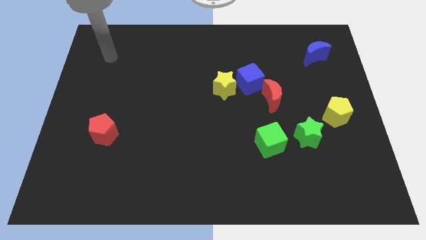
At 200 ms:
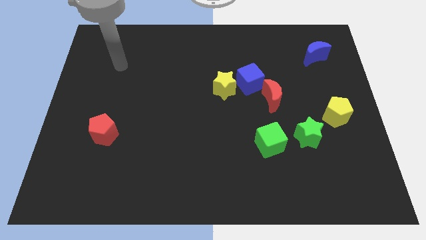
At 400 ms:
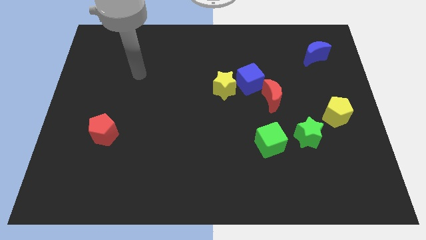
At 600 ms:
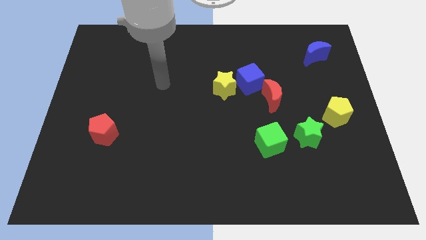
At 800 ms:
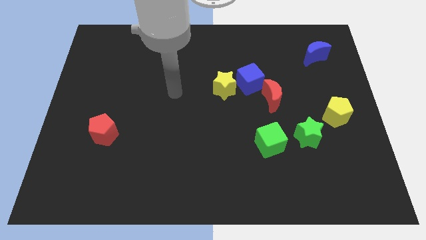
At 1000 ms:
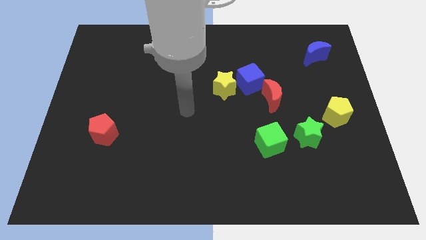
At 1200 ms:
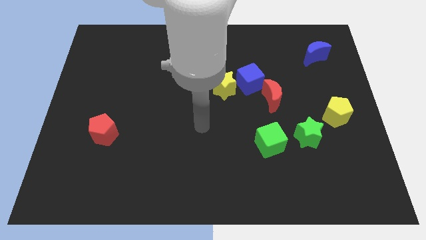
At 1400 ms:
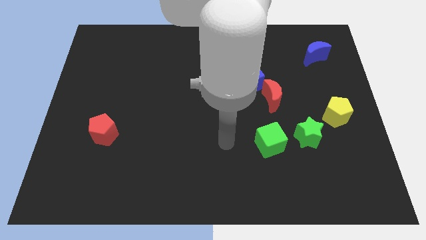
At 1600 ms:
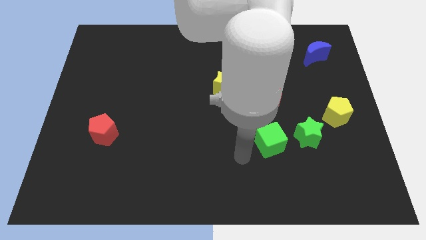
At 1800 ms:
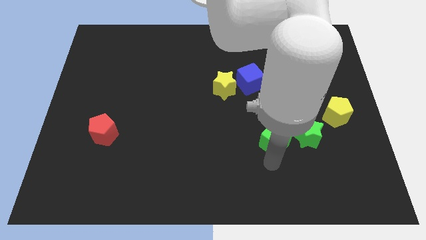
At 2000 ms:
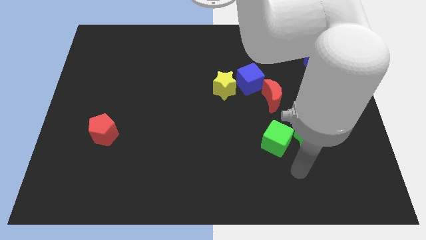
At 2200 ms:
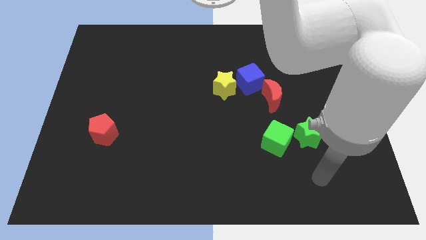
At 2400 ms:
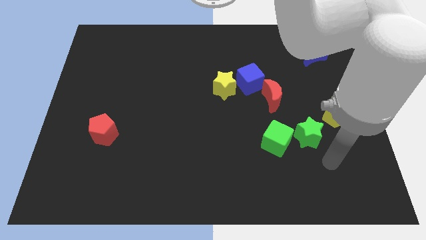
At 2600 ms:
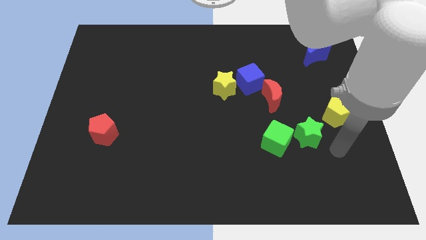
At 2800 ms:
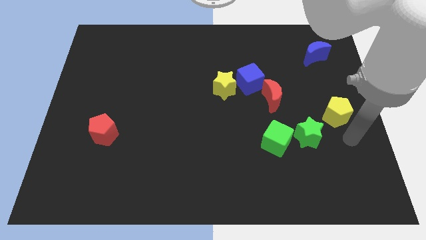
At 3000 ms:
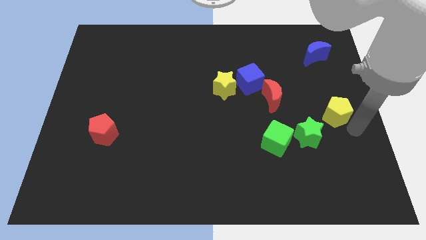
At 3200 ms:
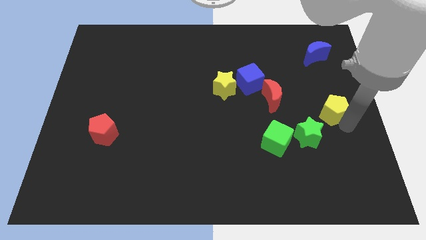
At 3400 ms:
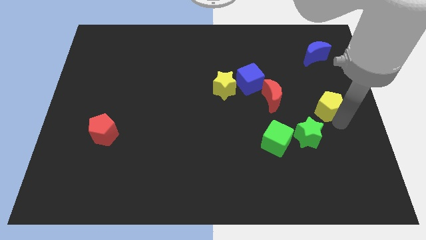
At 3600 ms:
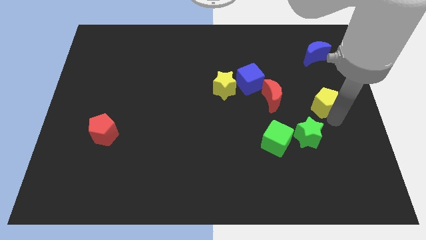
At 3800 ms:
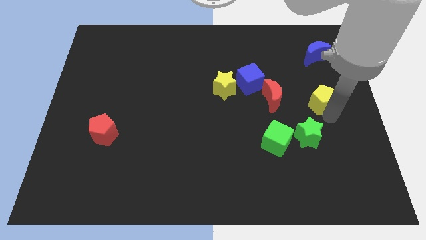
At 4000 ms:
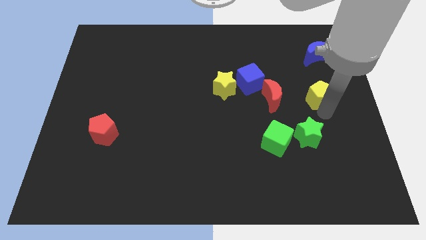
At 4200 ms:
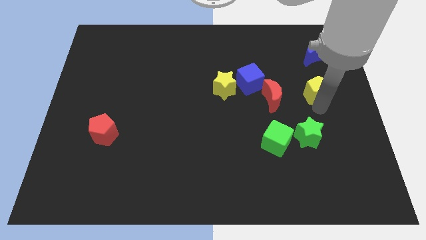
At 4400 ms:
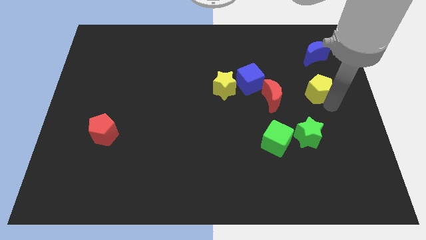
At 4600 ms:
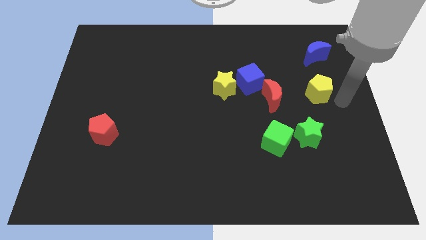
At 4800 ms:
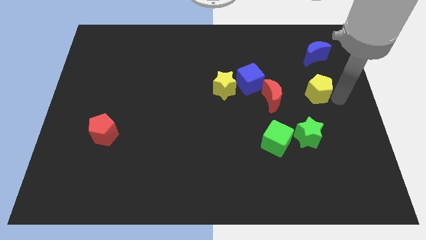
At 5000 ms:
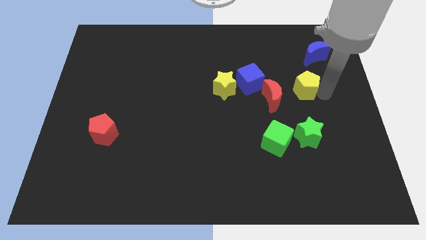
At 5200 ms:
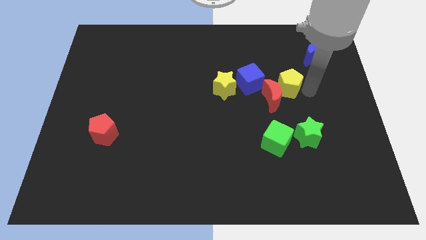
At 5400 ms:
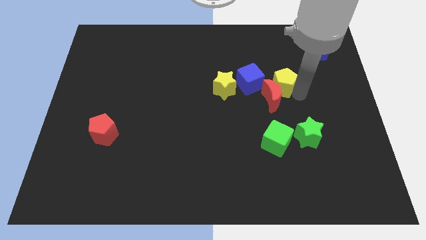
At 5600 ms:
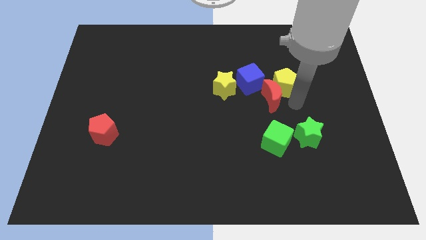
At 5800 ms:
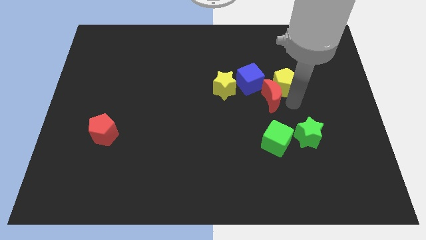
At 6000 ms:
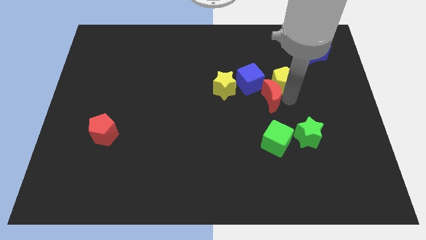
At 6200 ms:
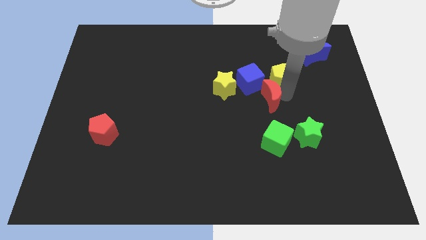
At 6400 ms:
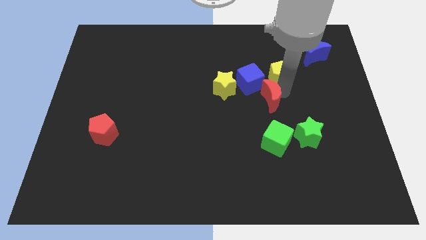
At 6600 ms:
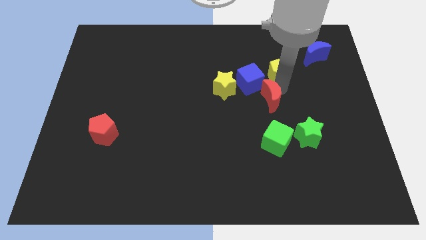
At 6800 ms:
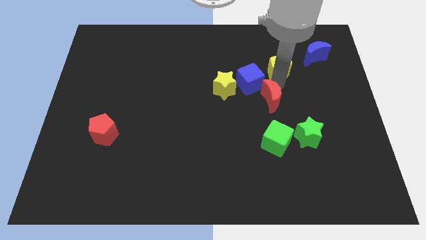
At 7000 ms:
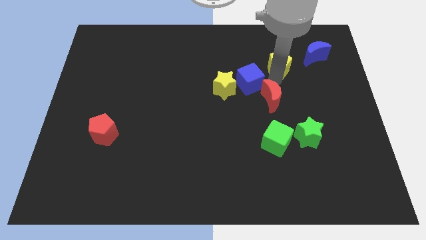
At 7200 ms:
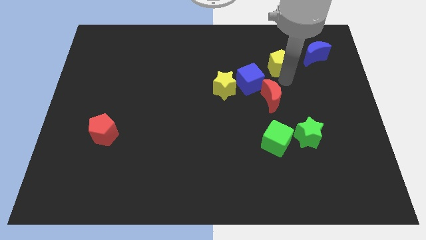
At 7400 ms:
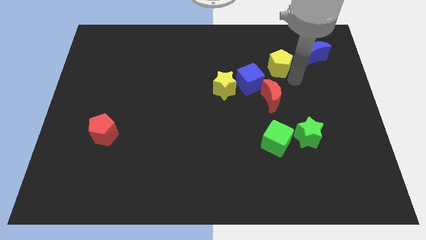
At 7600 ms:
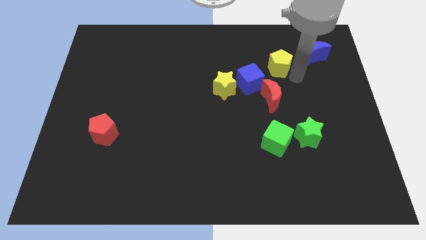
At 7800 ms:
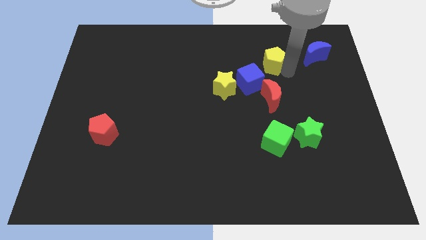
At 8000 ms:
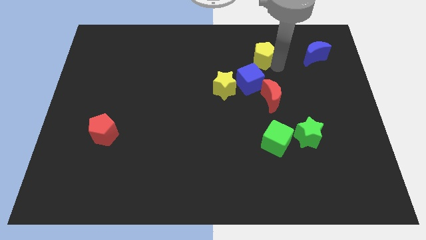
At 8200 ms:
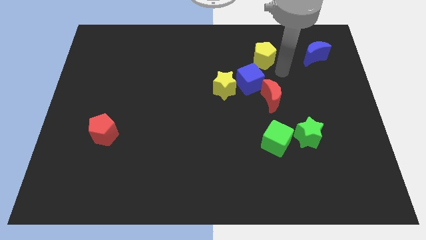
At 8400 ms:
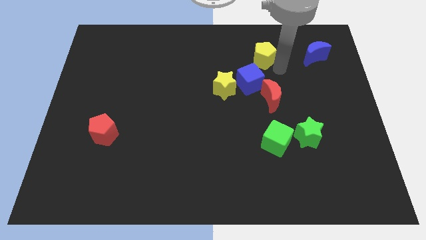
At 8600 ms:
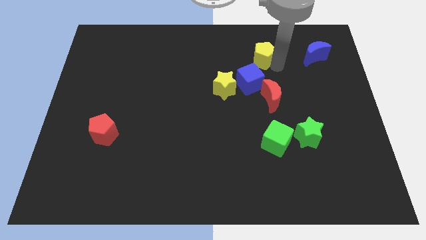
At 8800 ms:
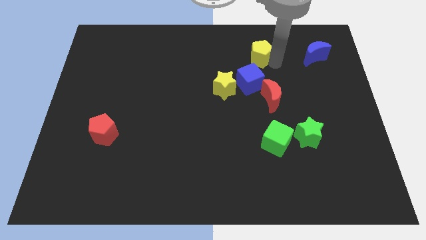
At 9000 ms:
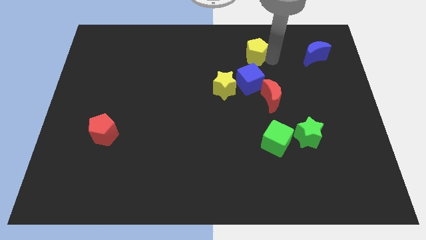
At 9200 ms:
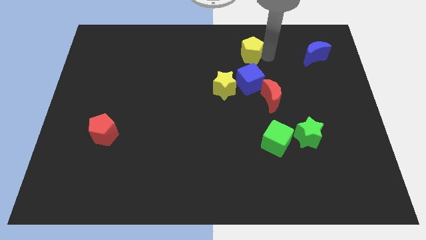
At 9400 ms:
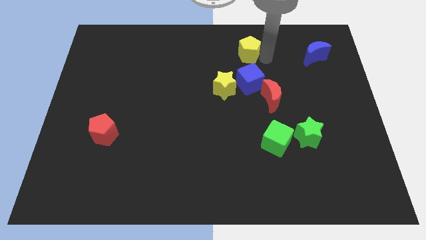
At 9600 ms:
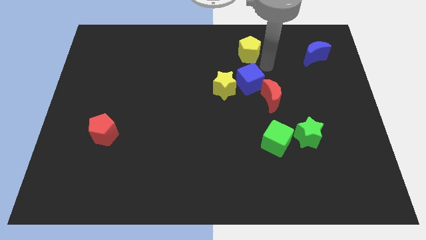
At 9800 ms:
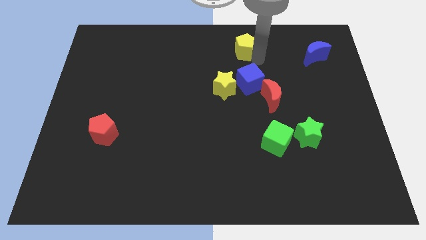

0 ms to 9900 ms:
put the yellow pentagon to the top

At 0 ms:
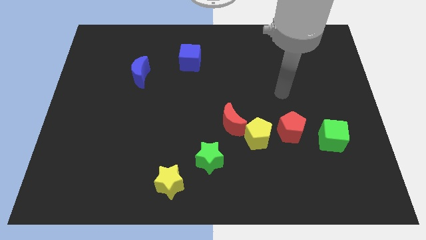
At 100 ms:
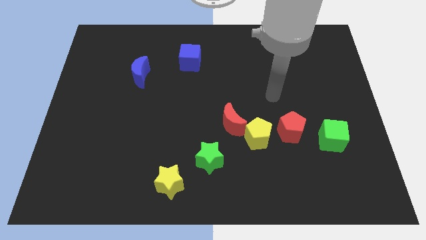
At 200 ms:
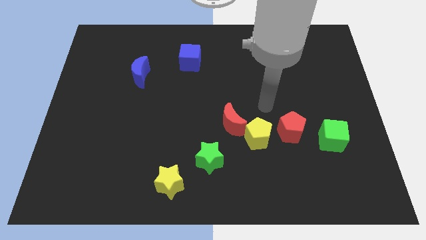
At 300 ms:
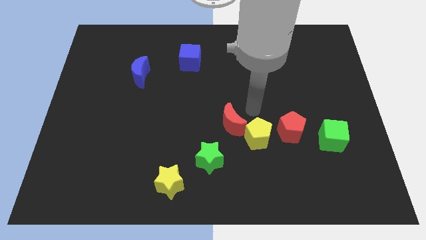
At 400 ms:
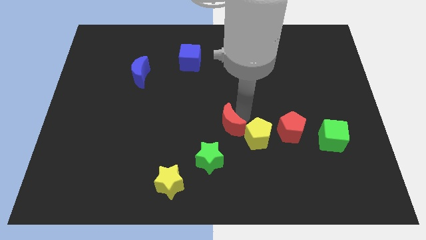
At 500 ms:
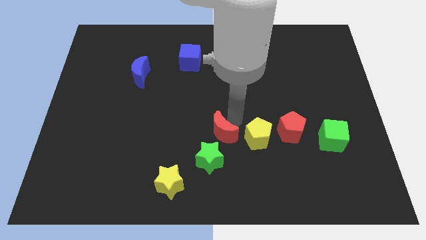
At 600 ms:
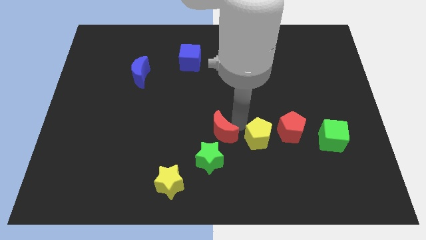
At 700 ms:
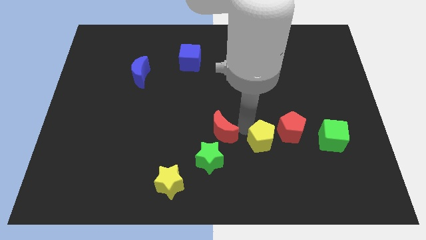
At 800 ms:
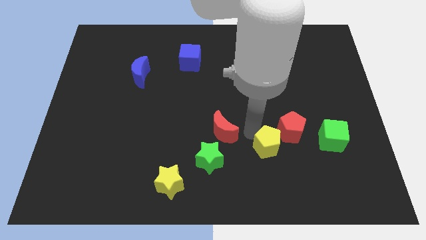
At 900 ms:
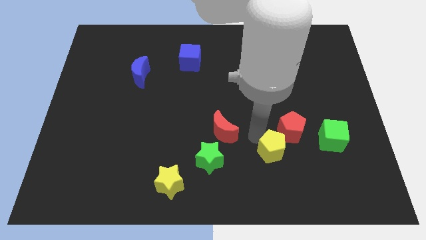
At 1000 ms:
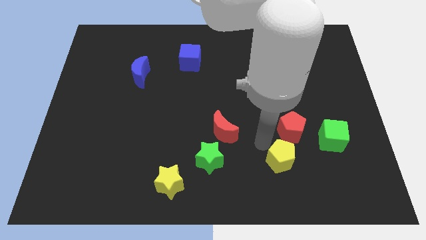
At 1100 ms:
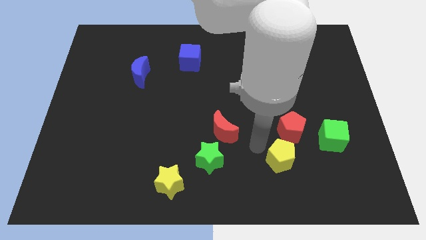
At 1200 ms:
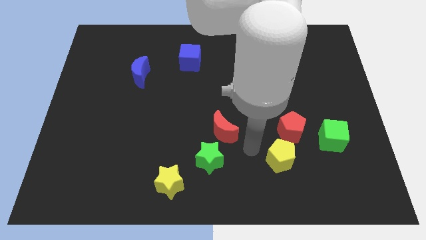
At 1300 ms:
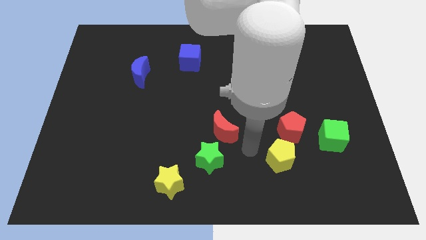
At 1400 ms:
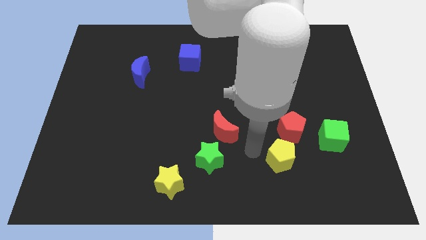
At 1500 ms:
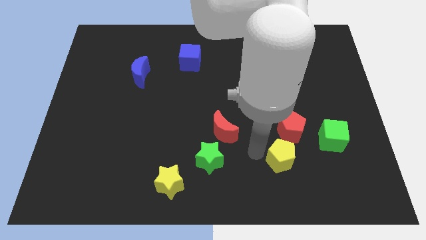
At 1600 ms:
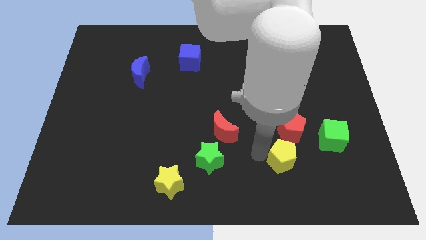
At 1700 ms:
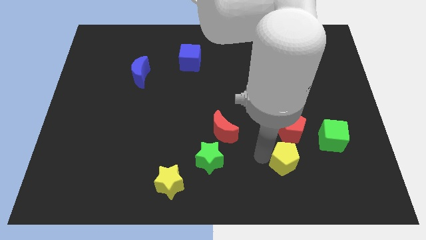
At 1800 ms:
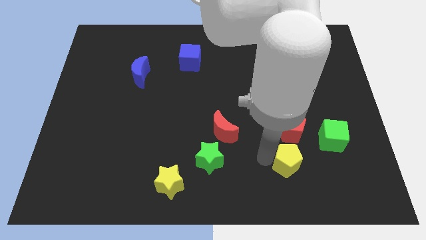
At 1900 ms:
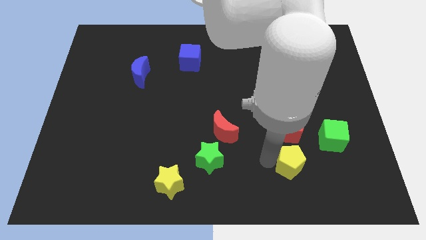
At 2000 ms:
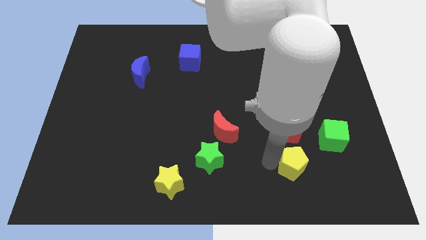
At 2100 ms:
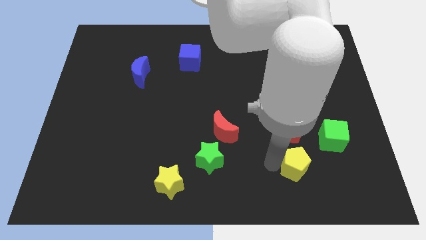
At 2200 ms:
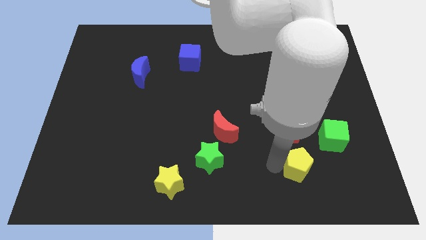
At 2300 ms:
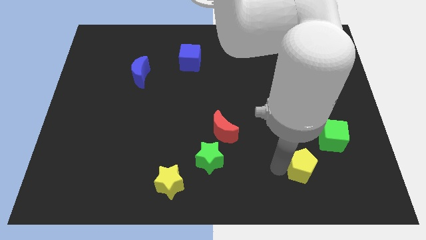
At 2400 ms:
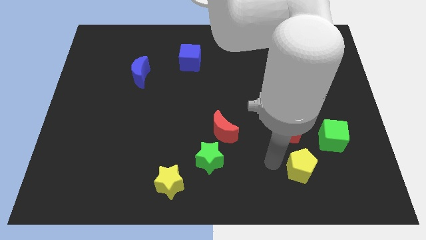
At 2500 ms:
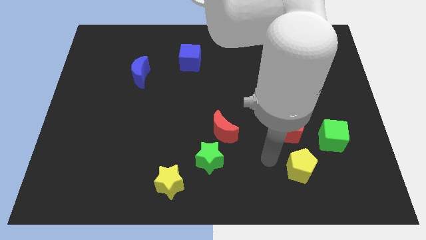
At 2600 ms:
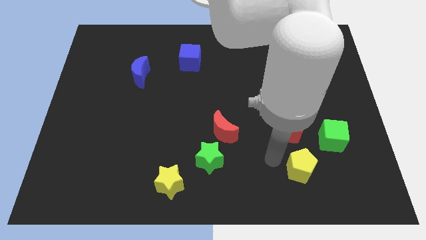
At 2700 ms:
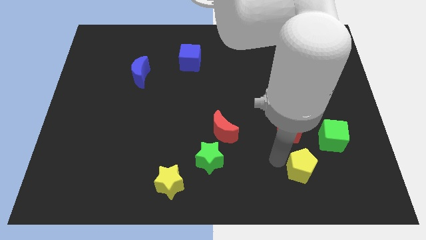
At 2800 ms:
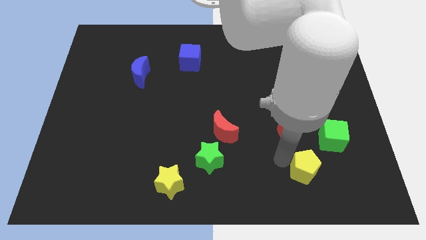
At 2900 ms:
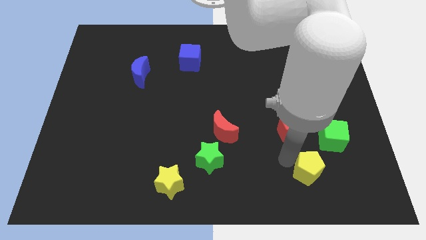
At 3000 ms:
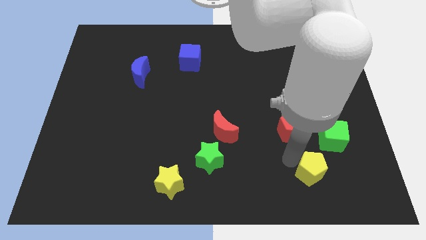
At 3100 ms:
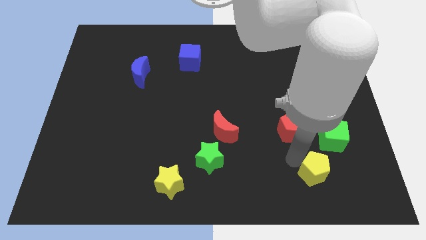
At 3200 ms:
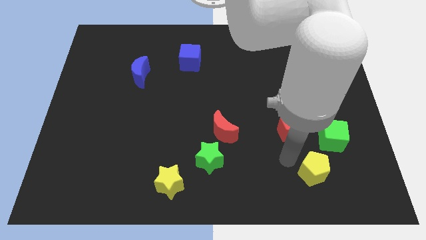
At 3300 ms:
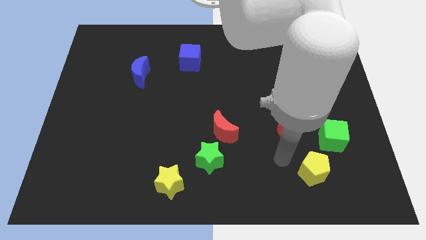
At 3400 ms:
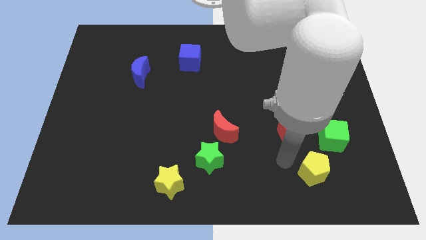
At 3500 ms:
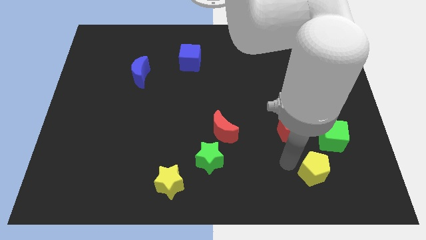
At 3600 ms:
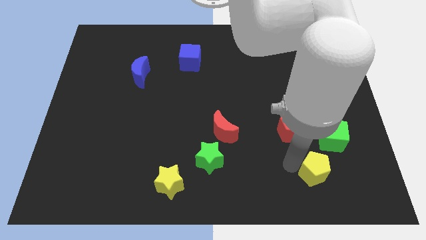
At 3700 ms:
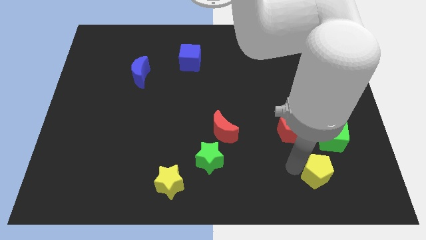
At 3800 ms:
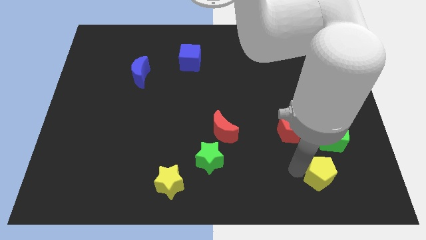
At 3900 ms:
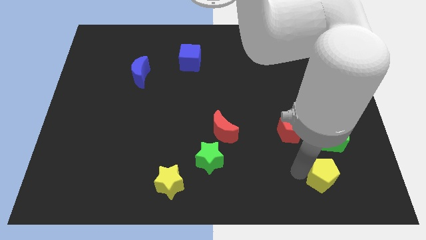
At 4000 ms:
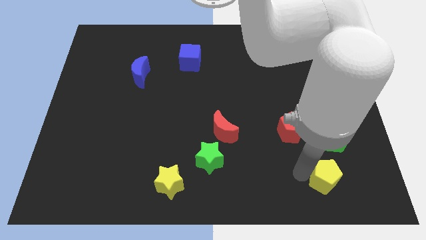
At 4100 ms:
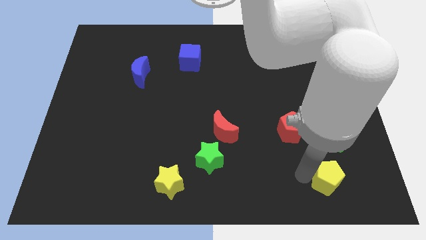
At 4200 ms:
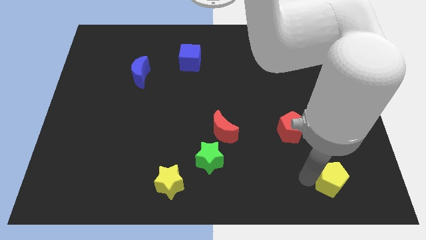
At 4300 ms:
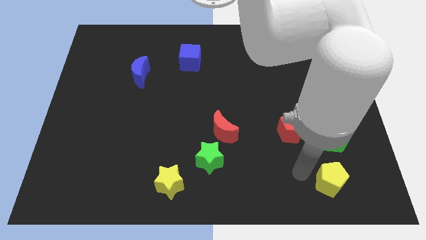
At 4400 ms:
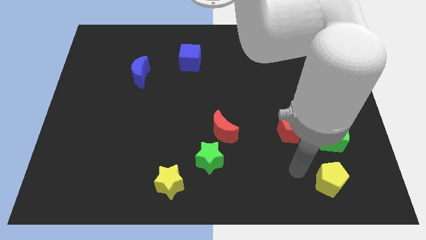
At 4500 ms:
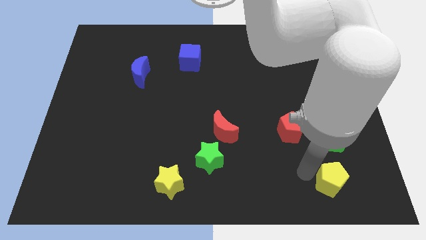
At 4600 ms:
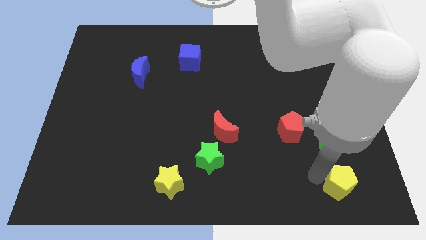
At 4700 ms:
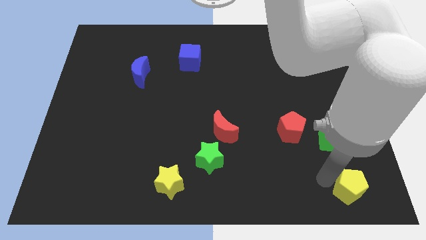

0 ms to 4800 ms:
put the yellow pentagon to the bottom right corner
